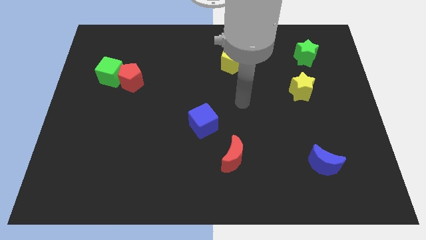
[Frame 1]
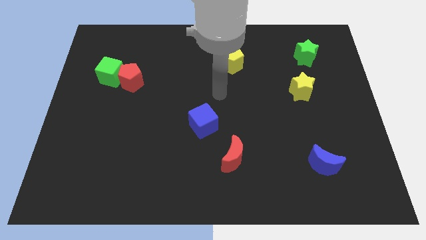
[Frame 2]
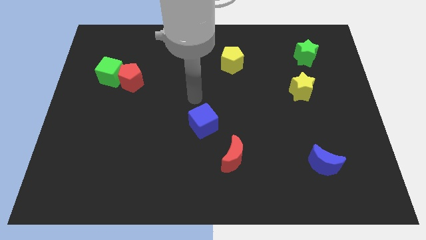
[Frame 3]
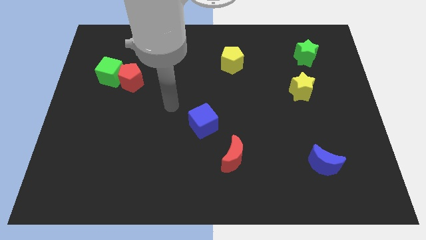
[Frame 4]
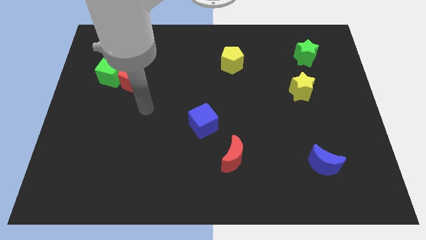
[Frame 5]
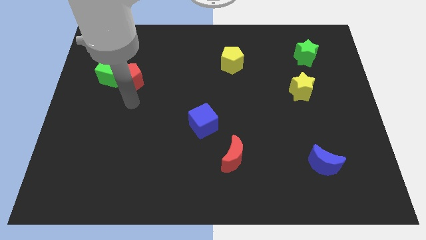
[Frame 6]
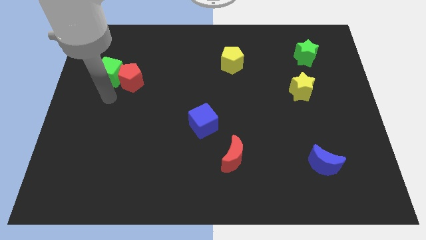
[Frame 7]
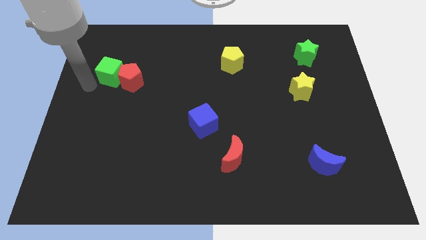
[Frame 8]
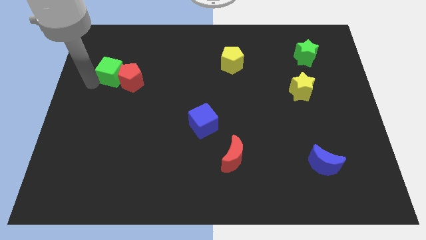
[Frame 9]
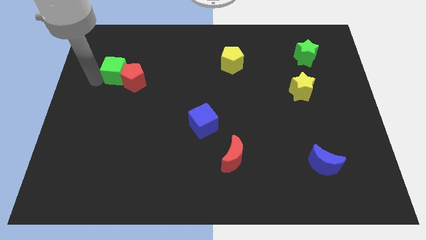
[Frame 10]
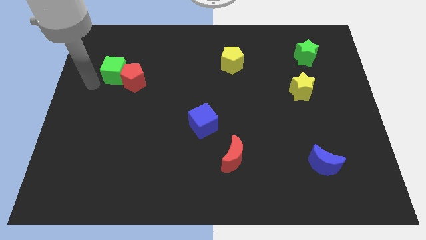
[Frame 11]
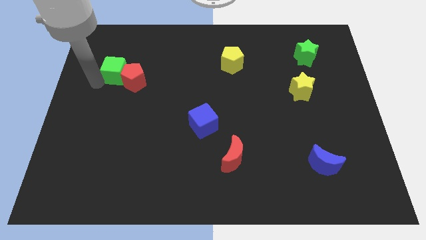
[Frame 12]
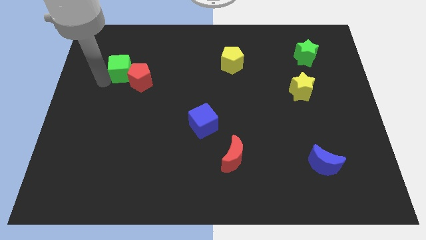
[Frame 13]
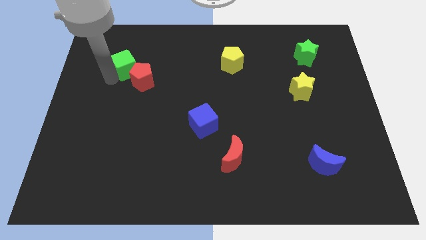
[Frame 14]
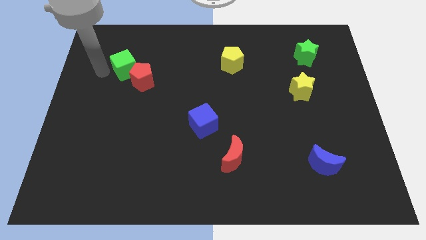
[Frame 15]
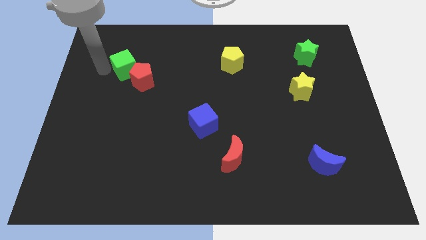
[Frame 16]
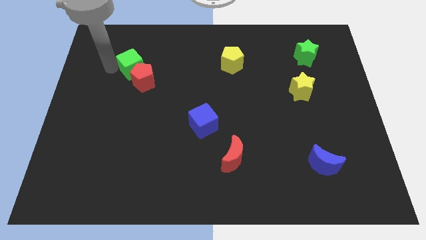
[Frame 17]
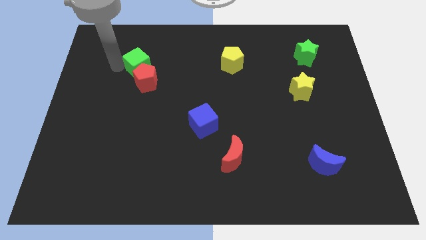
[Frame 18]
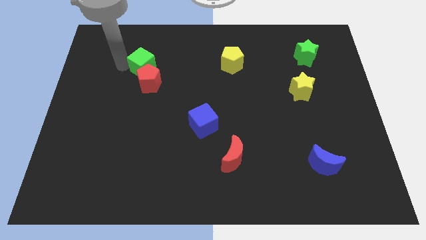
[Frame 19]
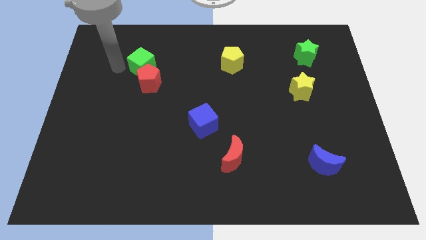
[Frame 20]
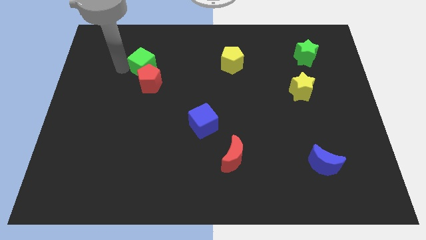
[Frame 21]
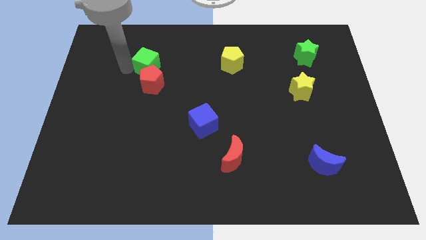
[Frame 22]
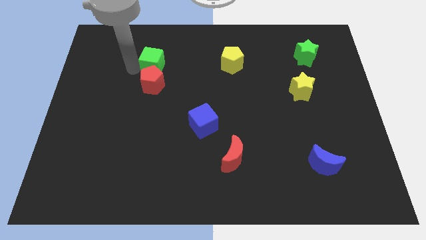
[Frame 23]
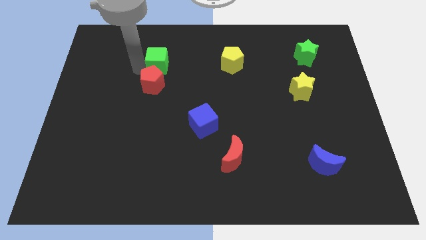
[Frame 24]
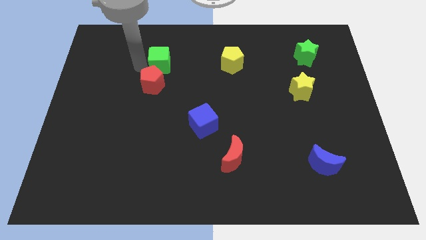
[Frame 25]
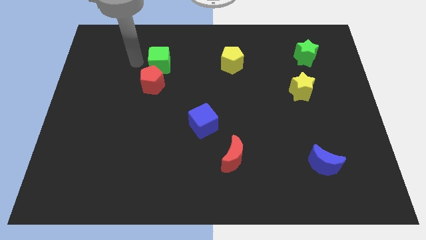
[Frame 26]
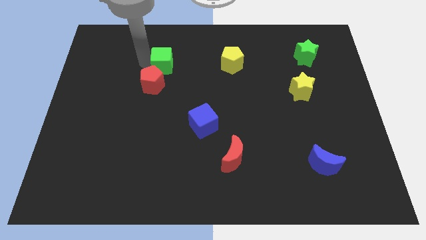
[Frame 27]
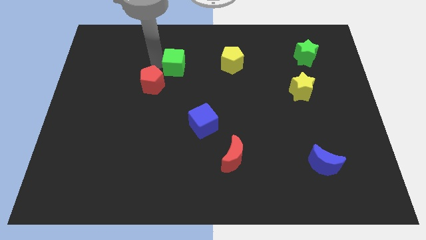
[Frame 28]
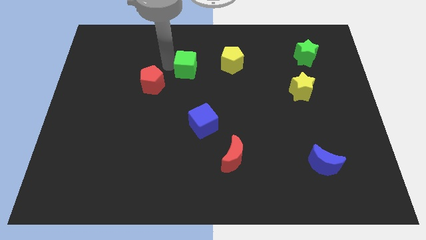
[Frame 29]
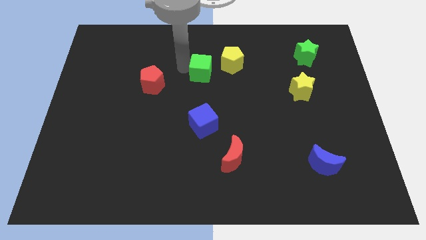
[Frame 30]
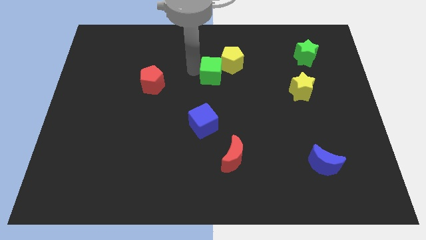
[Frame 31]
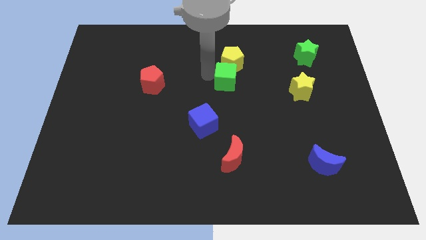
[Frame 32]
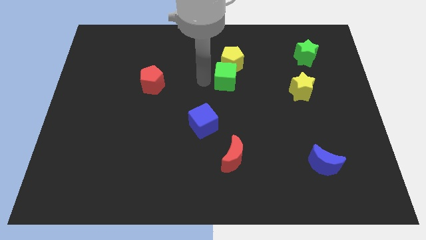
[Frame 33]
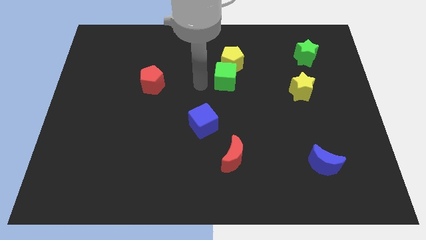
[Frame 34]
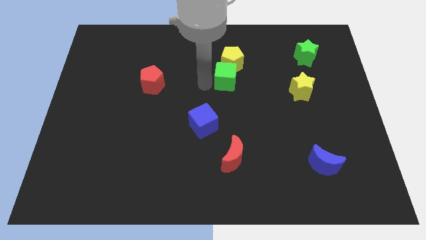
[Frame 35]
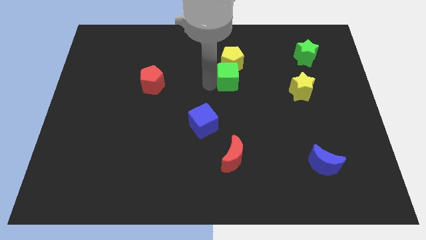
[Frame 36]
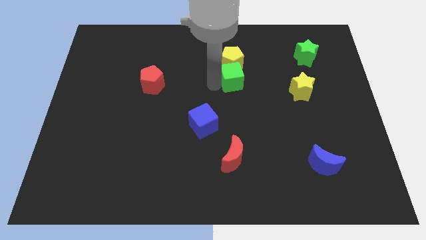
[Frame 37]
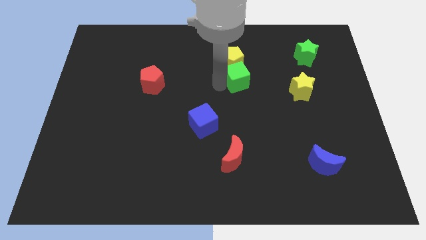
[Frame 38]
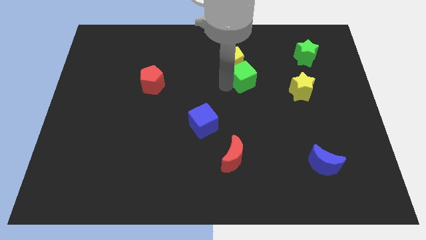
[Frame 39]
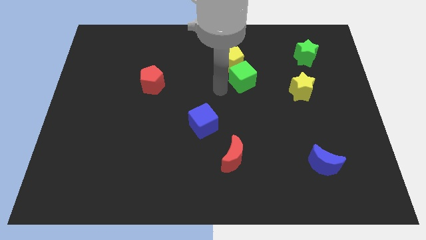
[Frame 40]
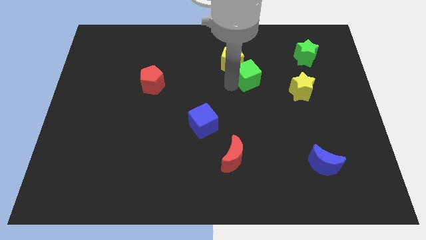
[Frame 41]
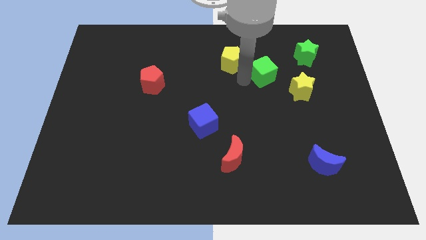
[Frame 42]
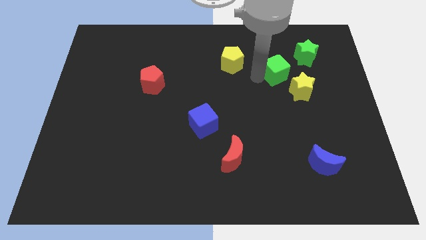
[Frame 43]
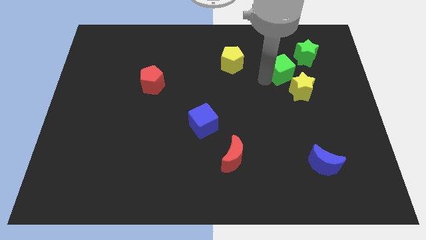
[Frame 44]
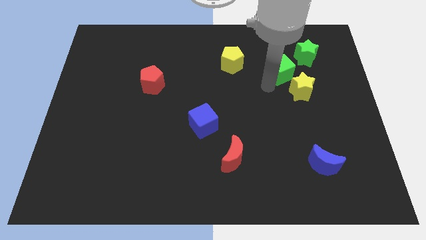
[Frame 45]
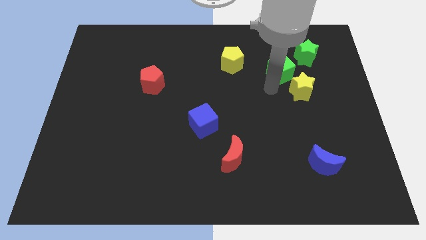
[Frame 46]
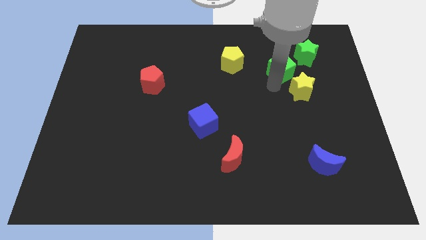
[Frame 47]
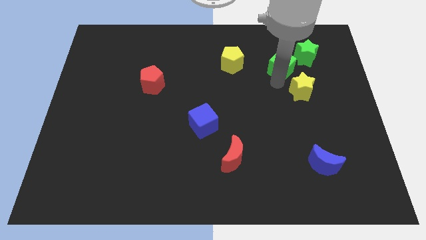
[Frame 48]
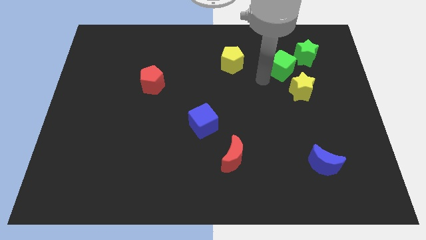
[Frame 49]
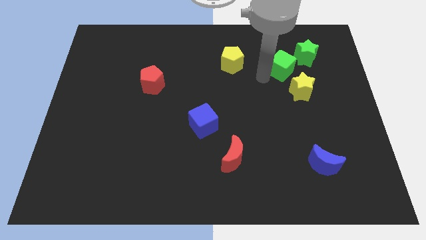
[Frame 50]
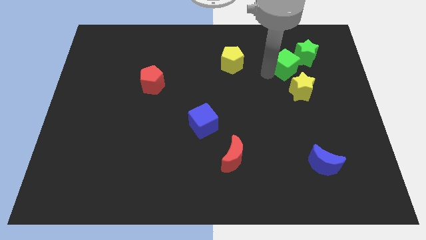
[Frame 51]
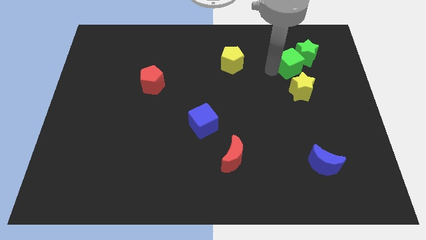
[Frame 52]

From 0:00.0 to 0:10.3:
slide the green cube to the green star

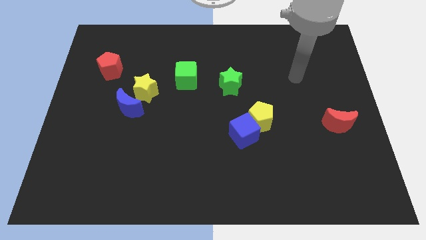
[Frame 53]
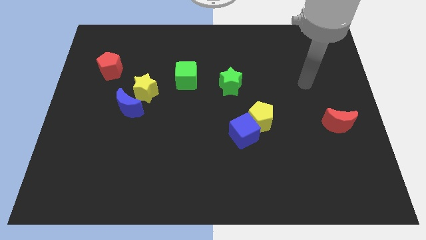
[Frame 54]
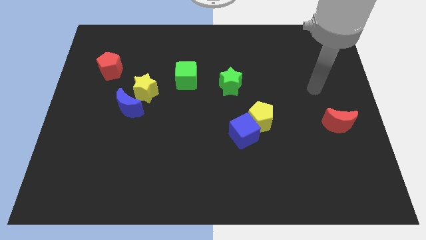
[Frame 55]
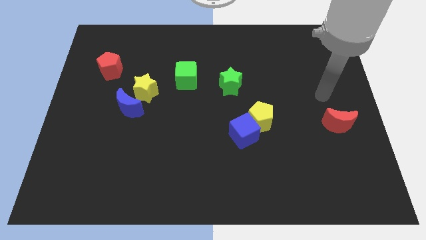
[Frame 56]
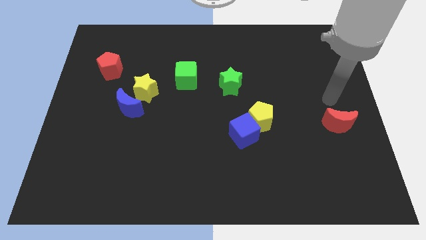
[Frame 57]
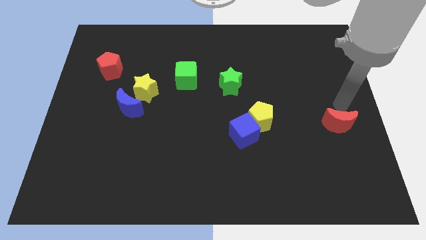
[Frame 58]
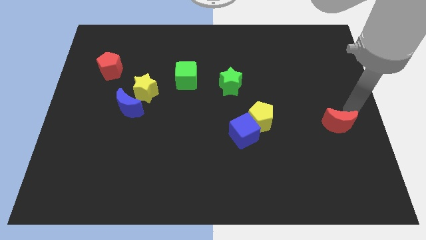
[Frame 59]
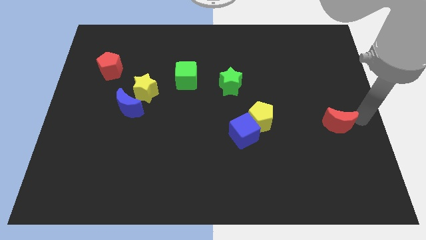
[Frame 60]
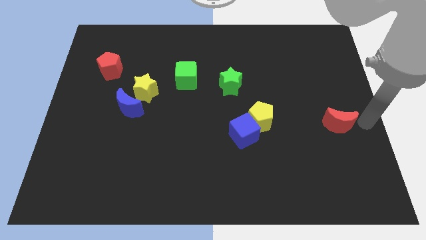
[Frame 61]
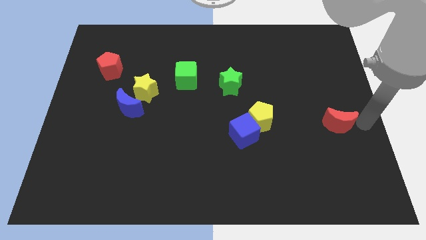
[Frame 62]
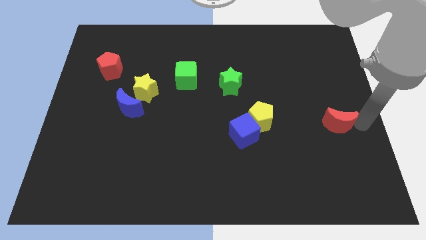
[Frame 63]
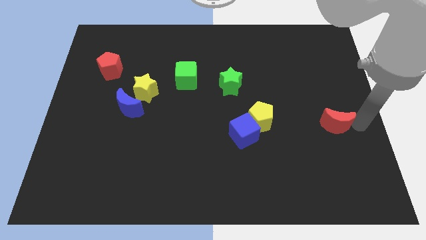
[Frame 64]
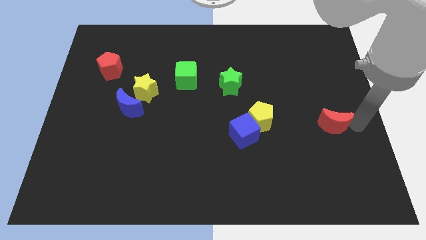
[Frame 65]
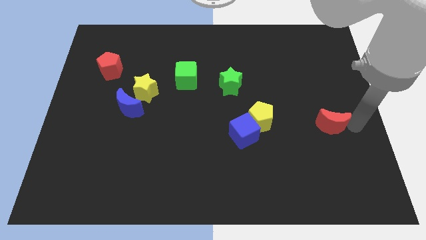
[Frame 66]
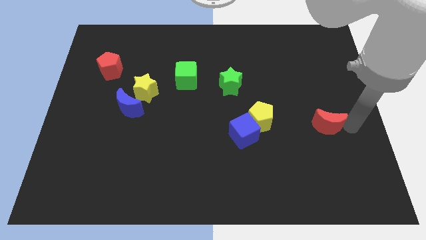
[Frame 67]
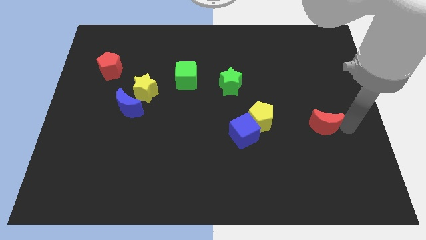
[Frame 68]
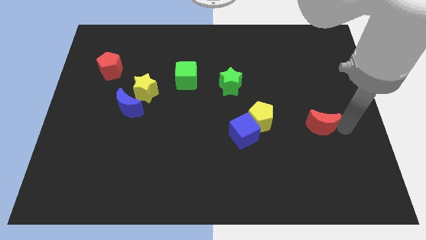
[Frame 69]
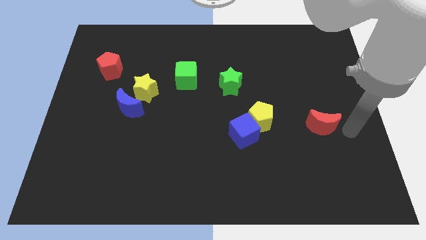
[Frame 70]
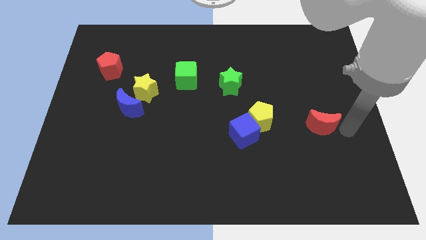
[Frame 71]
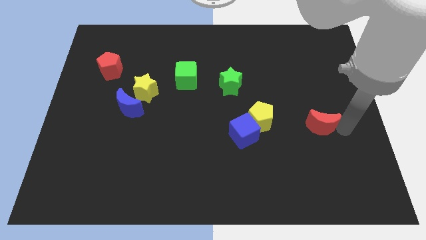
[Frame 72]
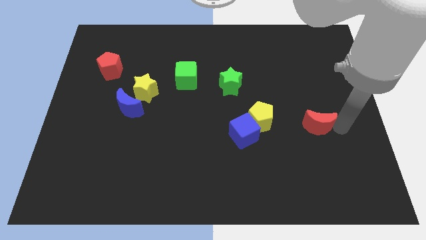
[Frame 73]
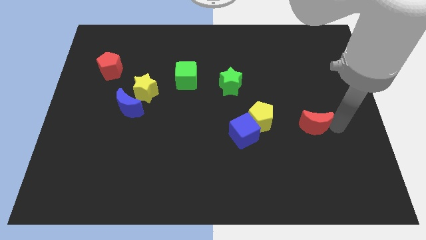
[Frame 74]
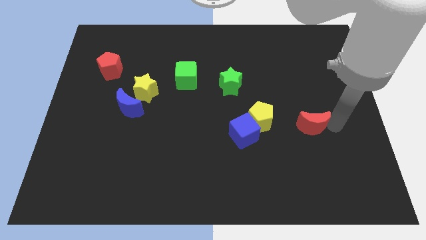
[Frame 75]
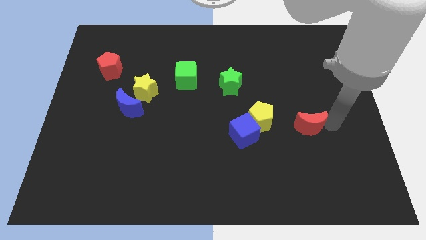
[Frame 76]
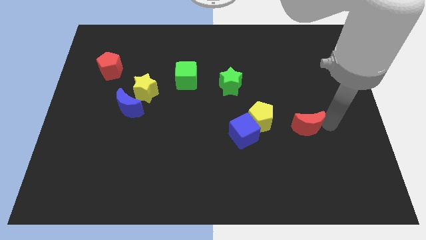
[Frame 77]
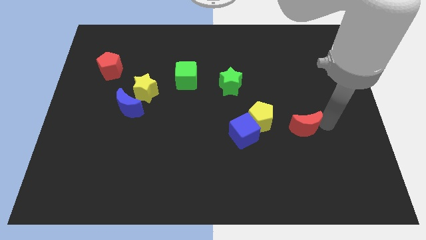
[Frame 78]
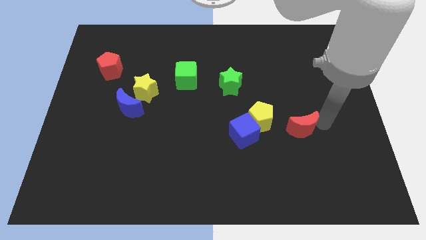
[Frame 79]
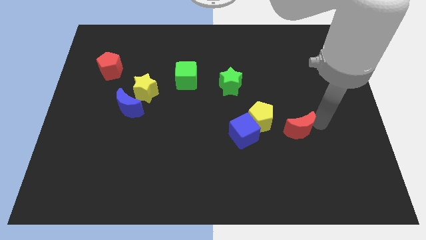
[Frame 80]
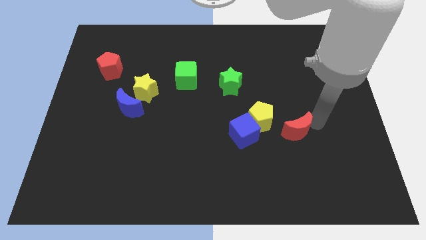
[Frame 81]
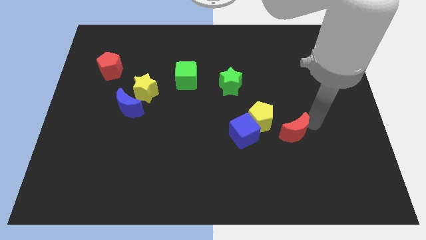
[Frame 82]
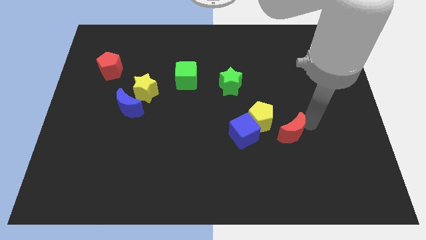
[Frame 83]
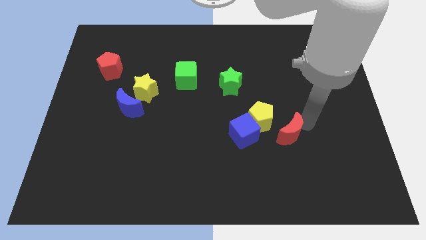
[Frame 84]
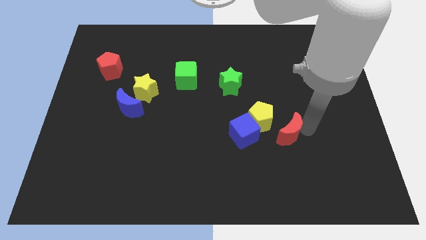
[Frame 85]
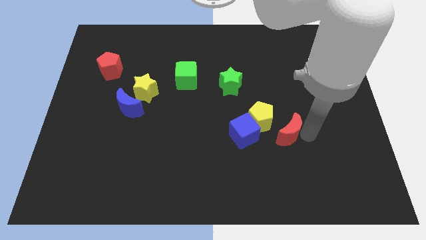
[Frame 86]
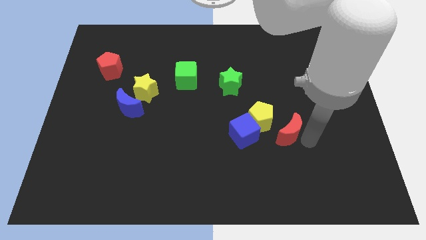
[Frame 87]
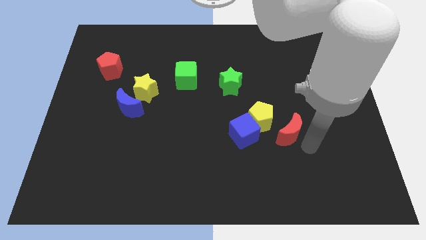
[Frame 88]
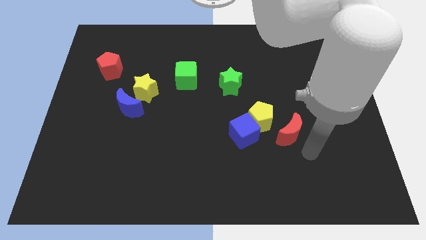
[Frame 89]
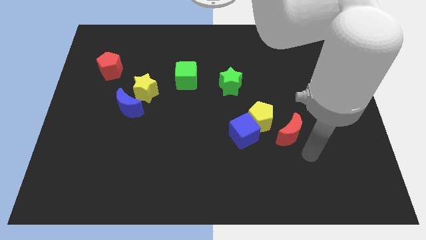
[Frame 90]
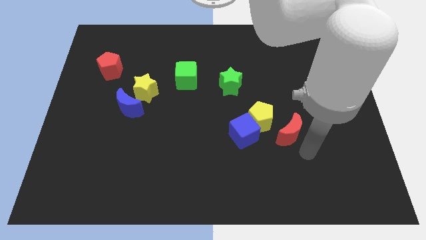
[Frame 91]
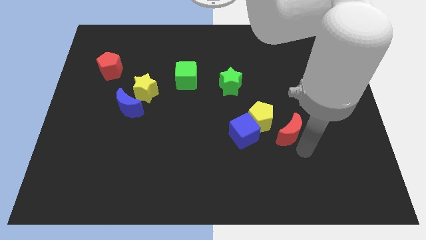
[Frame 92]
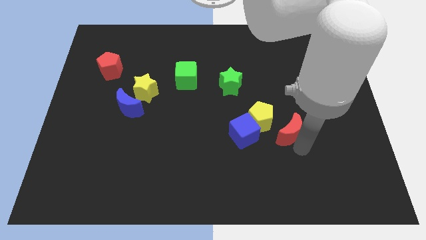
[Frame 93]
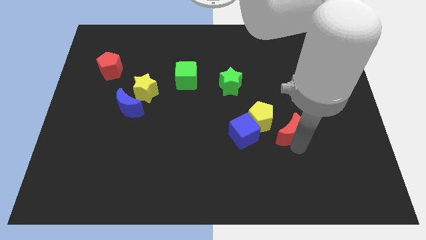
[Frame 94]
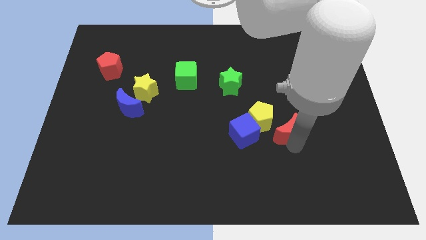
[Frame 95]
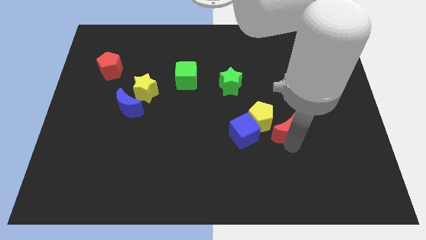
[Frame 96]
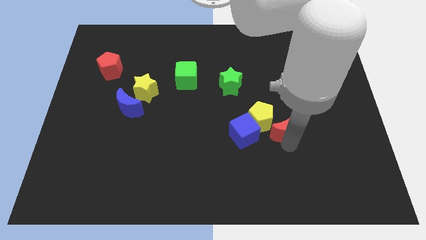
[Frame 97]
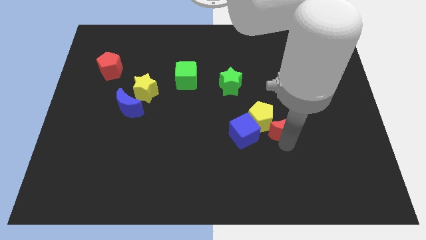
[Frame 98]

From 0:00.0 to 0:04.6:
move the red moon next to the yellow pentagon
